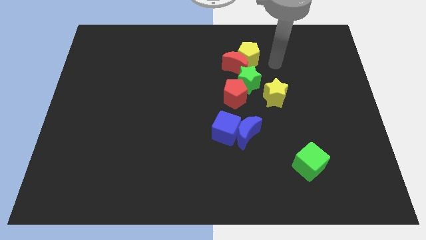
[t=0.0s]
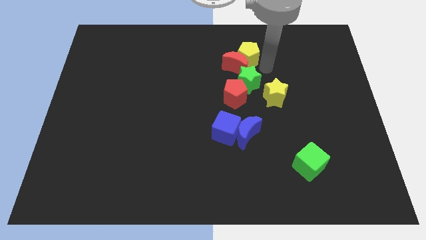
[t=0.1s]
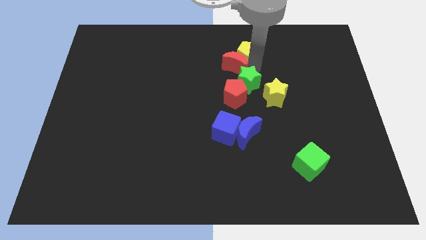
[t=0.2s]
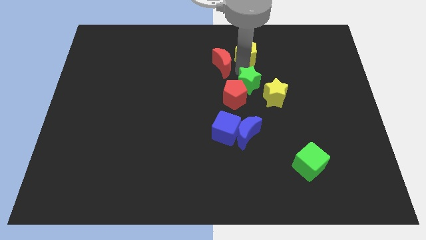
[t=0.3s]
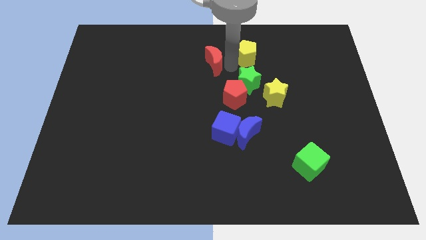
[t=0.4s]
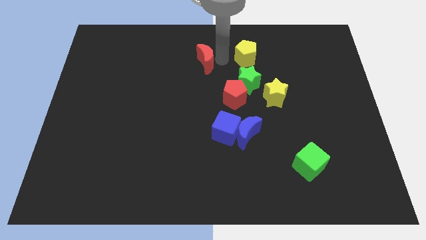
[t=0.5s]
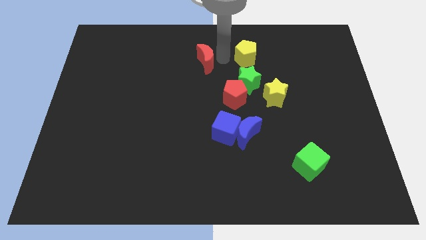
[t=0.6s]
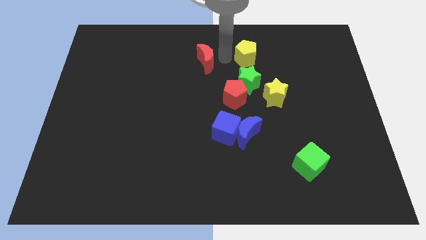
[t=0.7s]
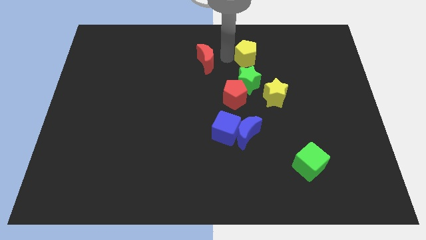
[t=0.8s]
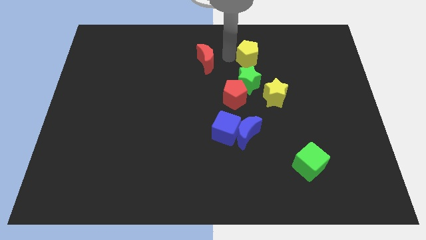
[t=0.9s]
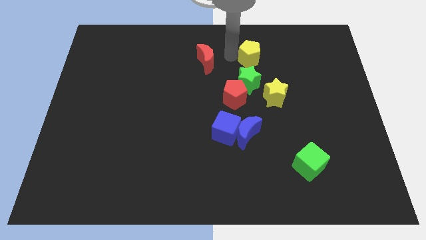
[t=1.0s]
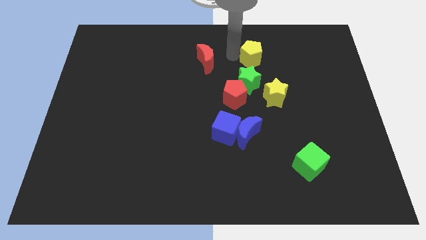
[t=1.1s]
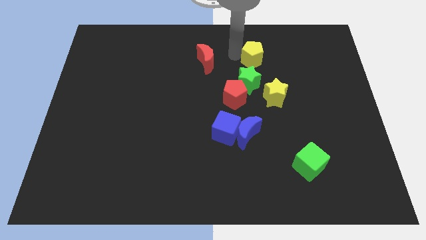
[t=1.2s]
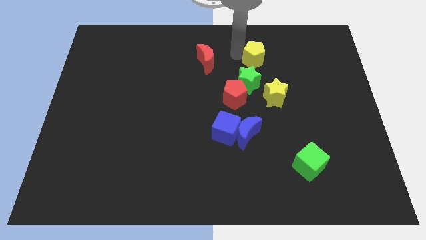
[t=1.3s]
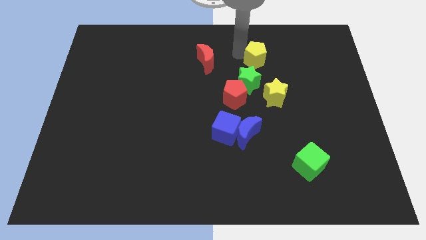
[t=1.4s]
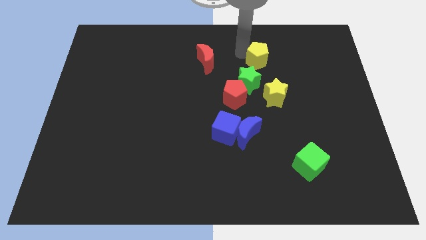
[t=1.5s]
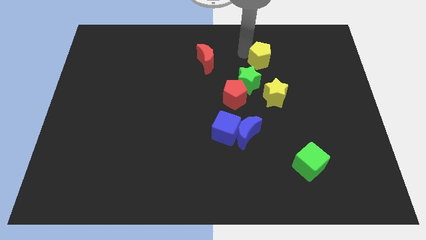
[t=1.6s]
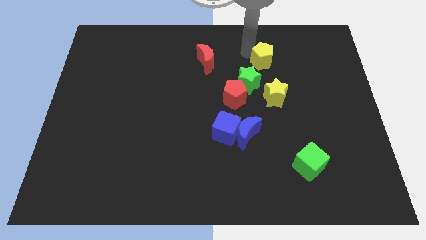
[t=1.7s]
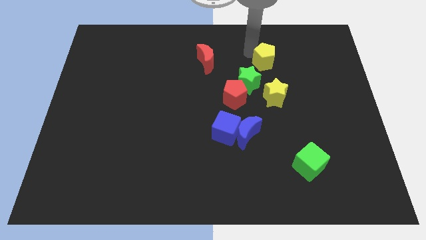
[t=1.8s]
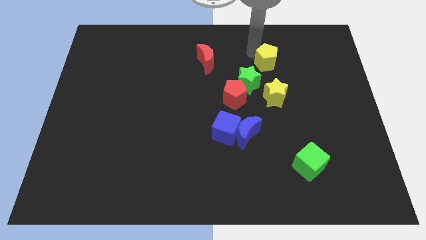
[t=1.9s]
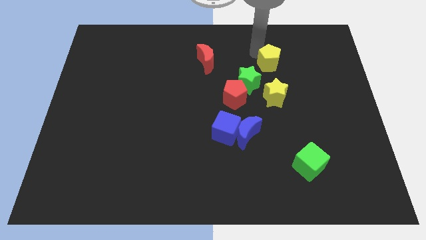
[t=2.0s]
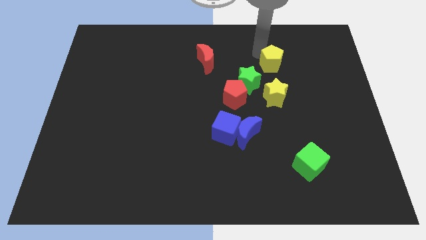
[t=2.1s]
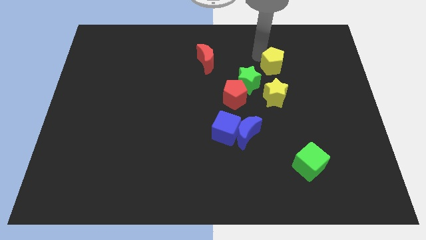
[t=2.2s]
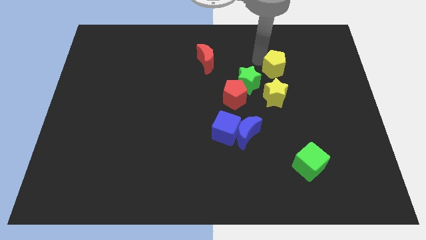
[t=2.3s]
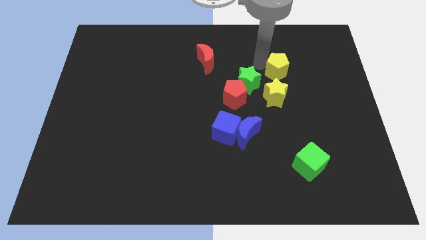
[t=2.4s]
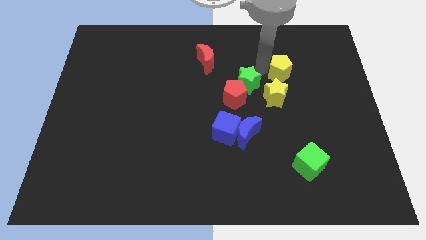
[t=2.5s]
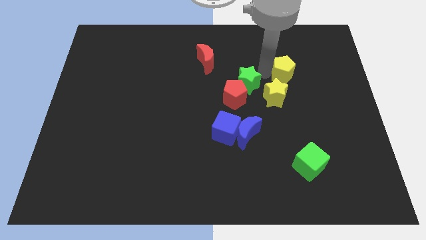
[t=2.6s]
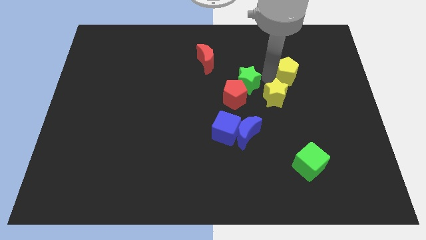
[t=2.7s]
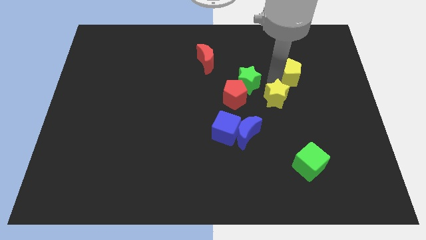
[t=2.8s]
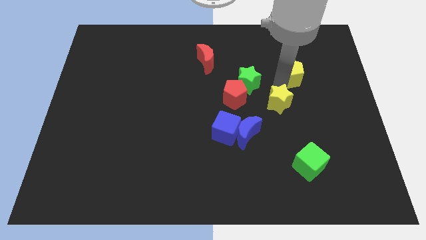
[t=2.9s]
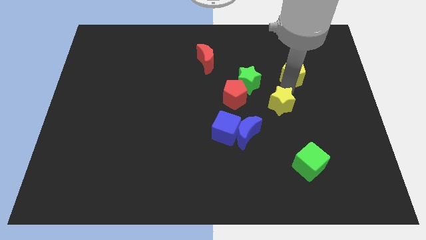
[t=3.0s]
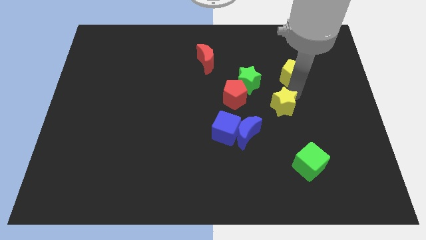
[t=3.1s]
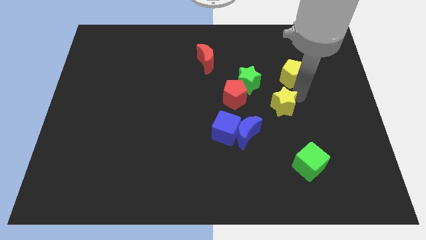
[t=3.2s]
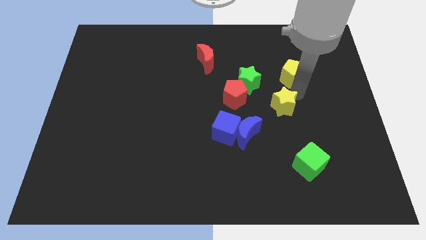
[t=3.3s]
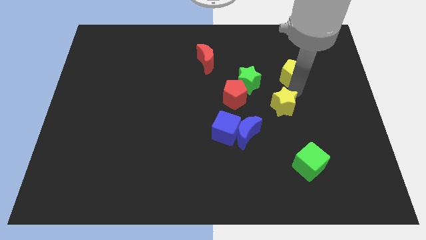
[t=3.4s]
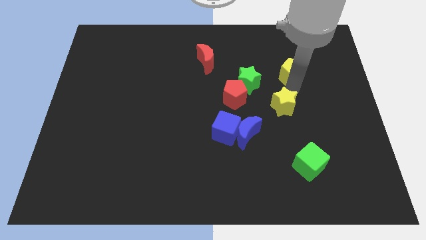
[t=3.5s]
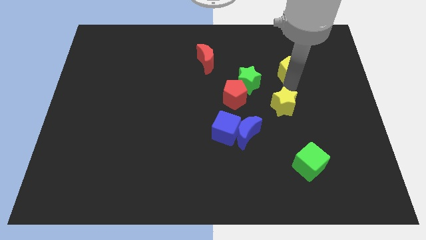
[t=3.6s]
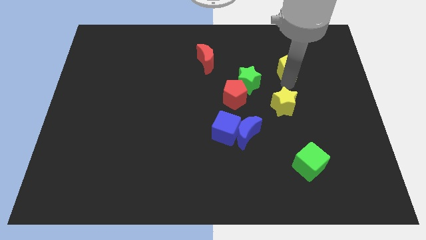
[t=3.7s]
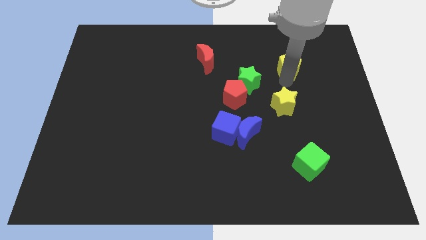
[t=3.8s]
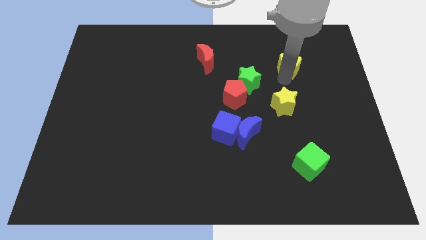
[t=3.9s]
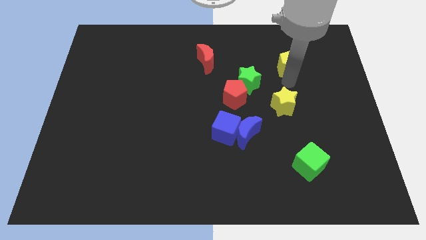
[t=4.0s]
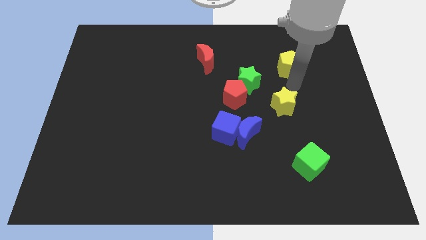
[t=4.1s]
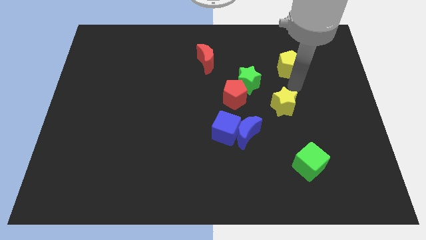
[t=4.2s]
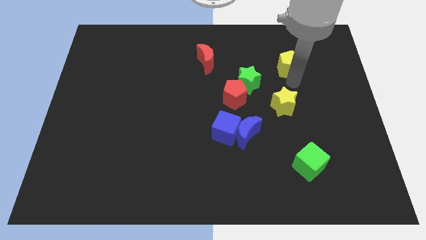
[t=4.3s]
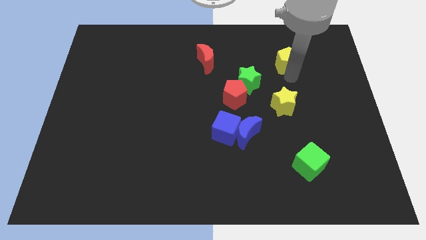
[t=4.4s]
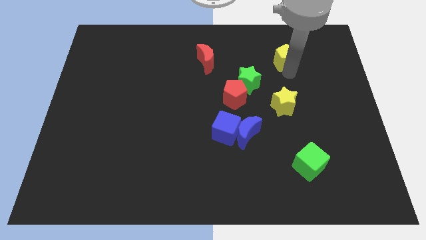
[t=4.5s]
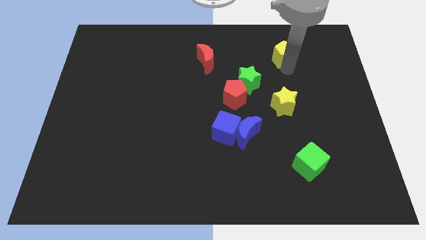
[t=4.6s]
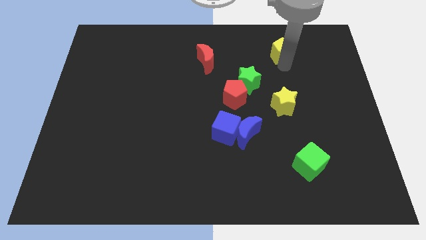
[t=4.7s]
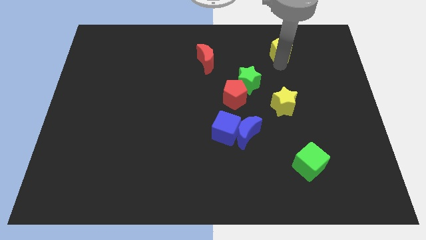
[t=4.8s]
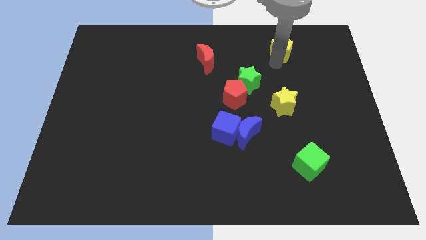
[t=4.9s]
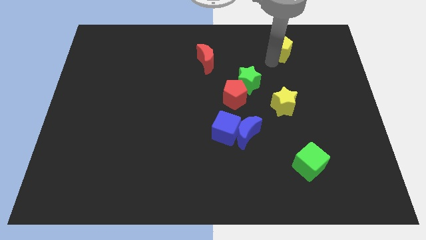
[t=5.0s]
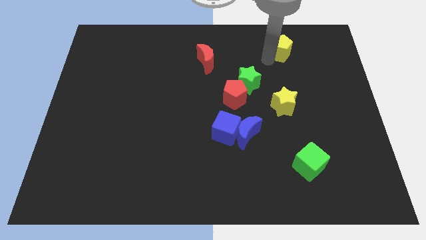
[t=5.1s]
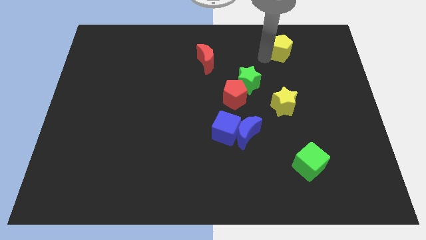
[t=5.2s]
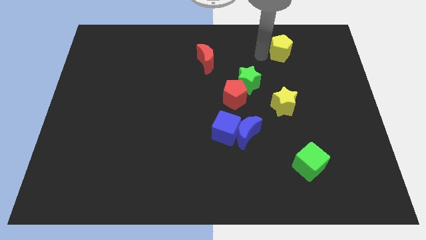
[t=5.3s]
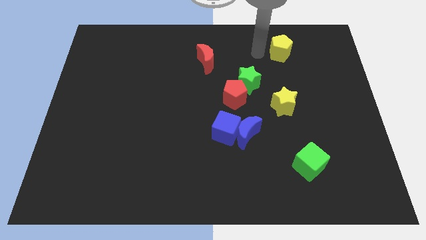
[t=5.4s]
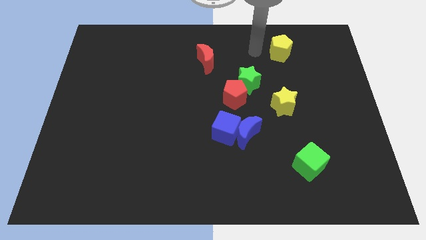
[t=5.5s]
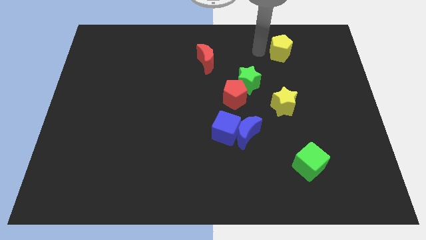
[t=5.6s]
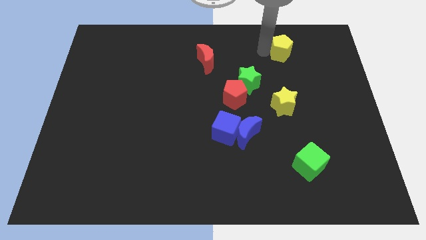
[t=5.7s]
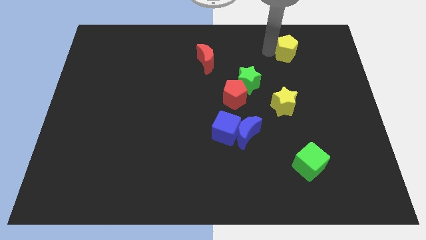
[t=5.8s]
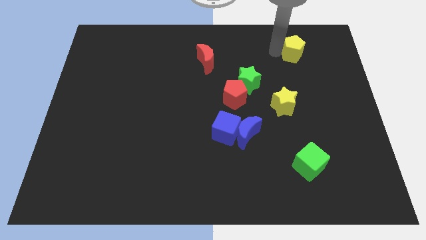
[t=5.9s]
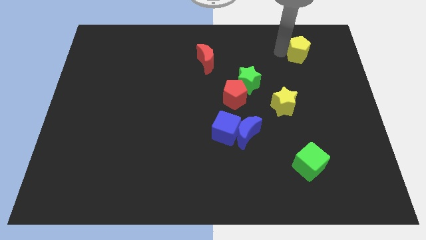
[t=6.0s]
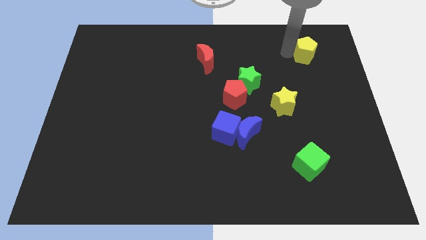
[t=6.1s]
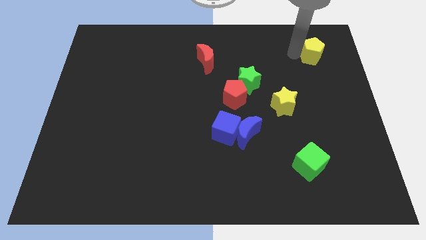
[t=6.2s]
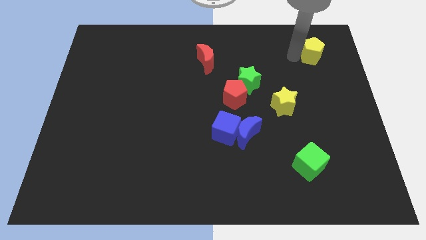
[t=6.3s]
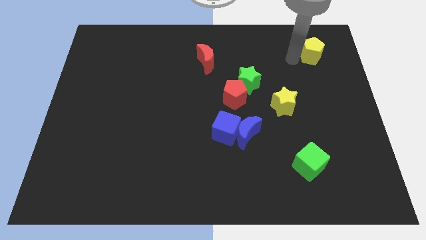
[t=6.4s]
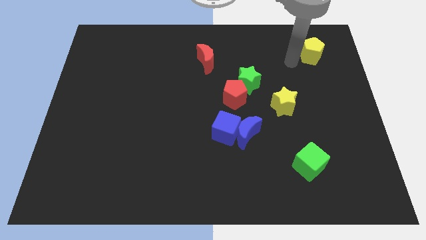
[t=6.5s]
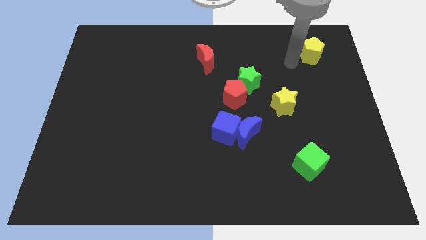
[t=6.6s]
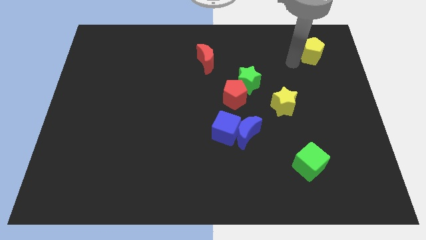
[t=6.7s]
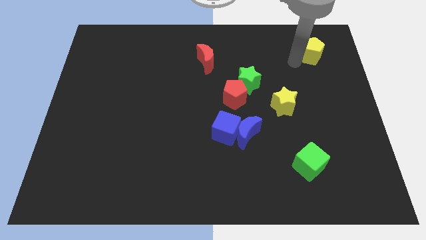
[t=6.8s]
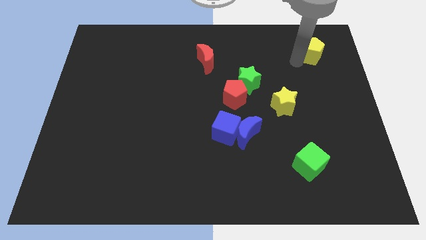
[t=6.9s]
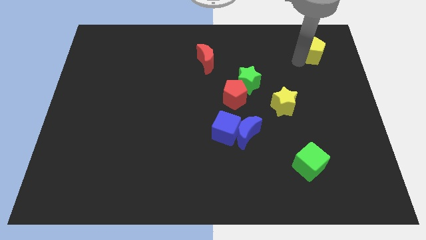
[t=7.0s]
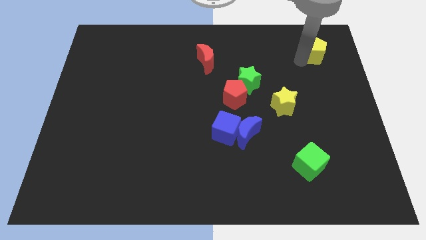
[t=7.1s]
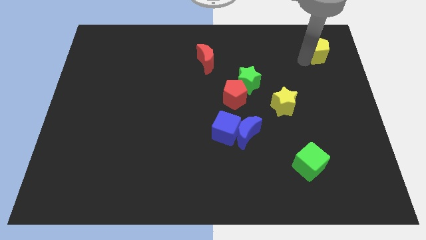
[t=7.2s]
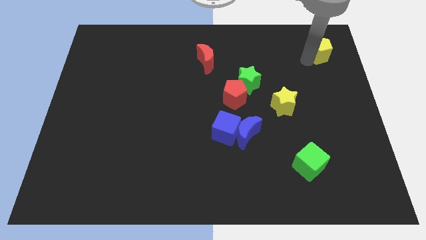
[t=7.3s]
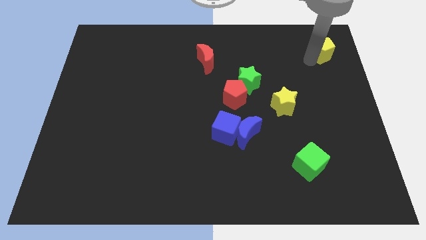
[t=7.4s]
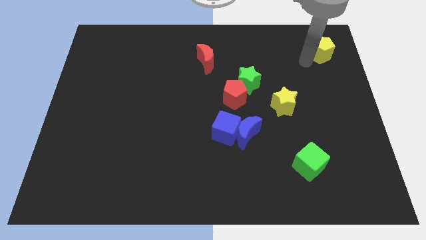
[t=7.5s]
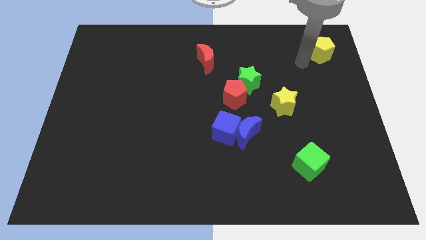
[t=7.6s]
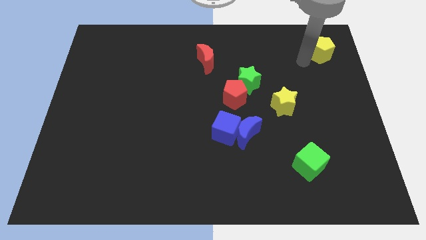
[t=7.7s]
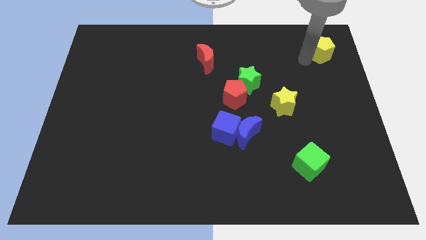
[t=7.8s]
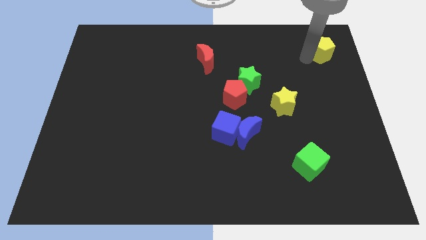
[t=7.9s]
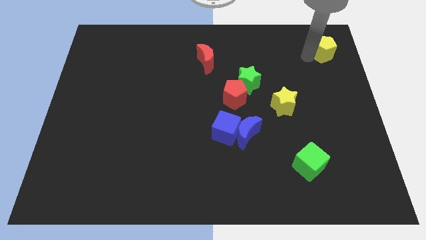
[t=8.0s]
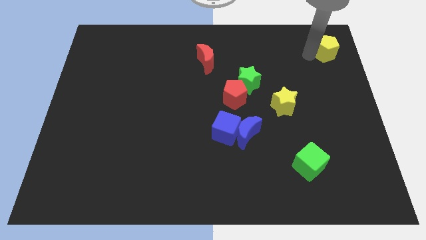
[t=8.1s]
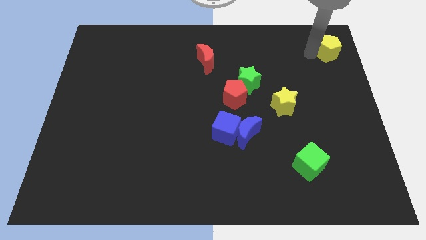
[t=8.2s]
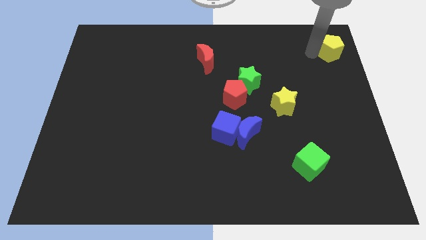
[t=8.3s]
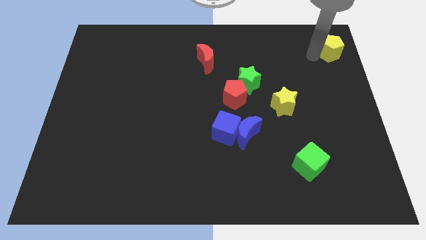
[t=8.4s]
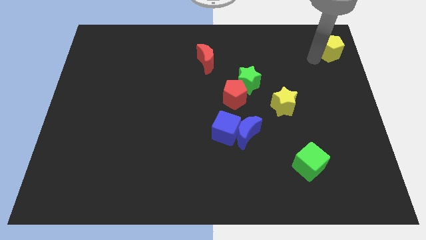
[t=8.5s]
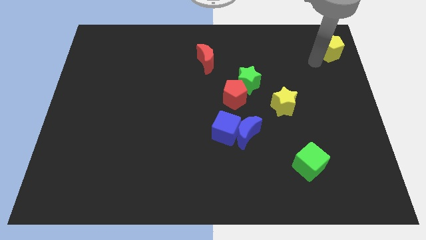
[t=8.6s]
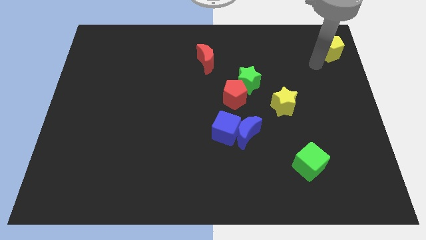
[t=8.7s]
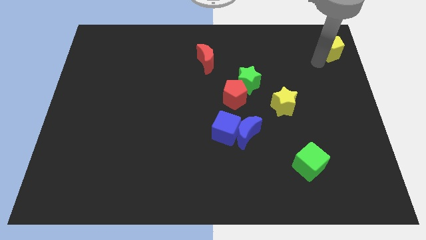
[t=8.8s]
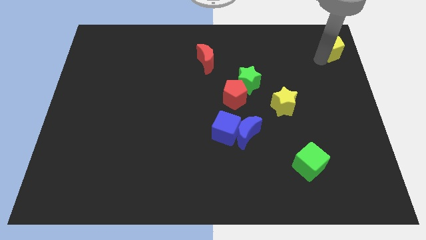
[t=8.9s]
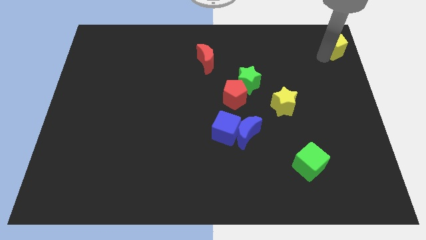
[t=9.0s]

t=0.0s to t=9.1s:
slide the yellow pentagon to the top right corner
